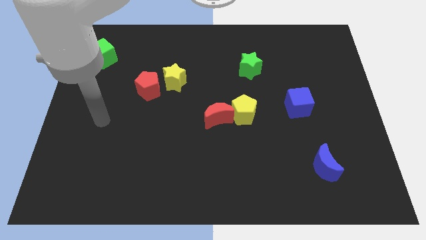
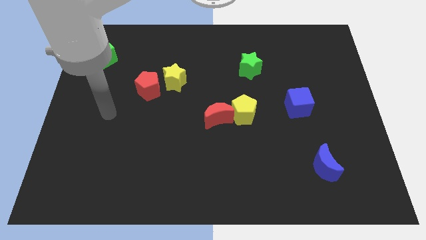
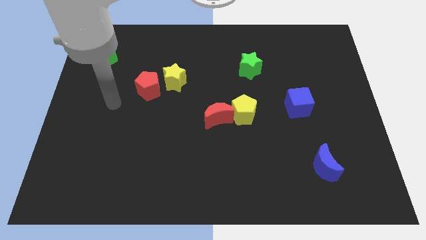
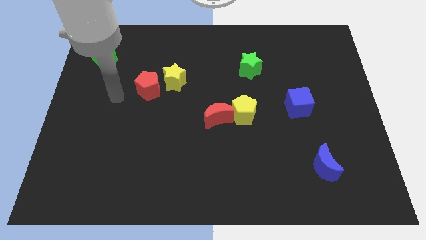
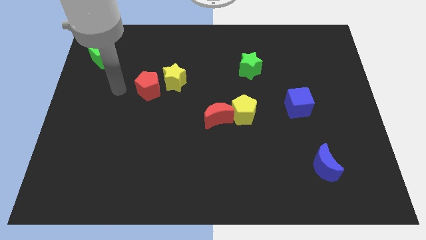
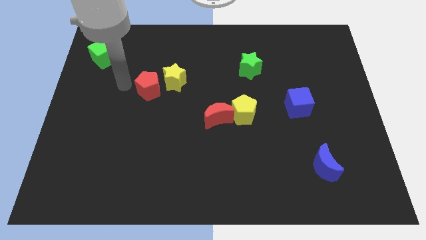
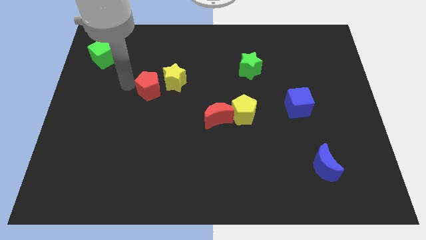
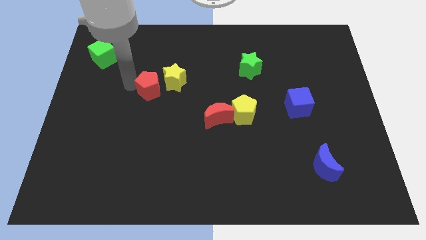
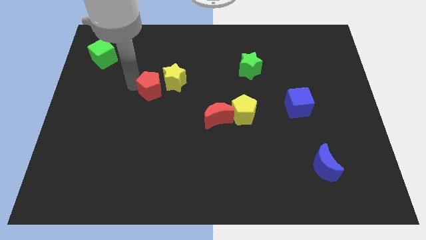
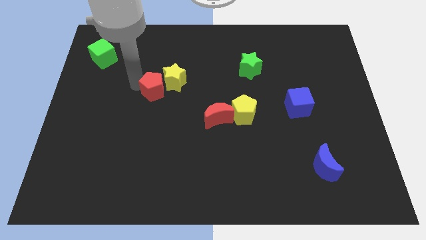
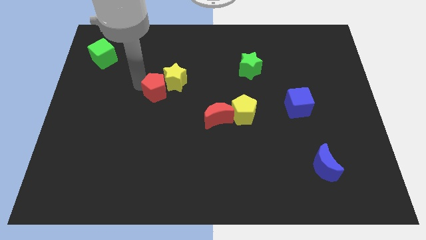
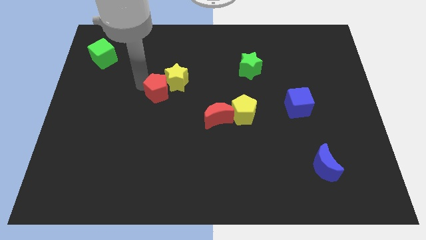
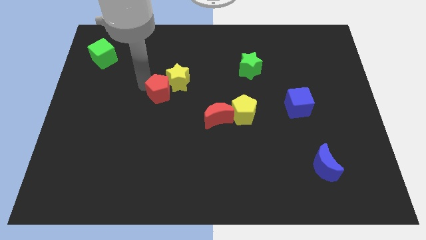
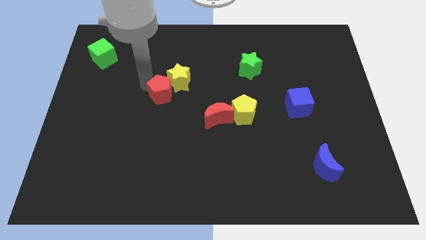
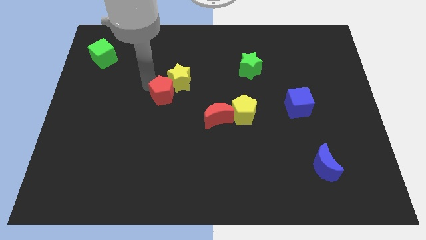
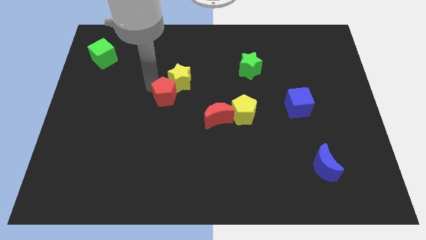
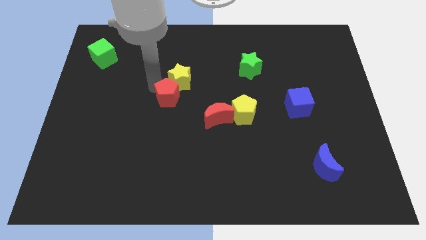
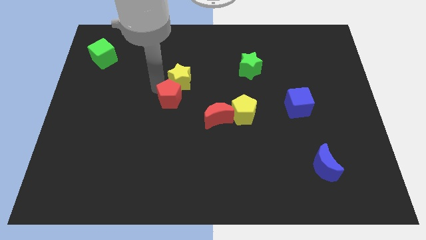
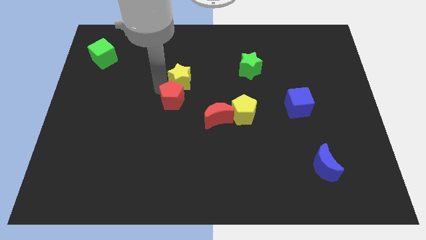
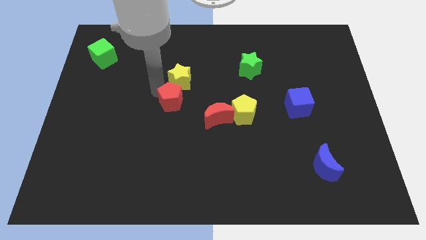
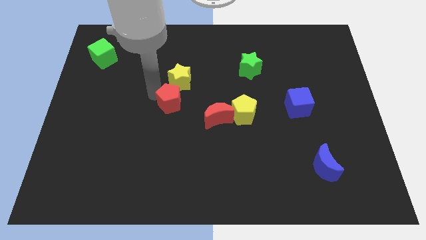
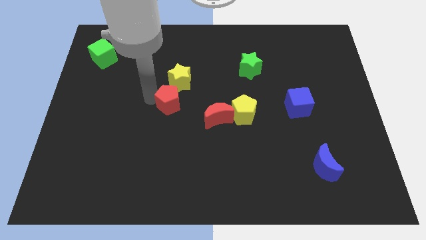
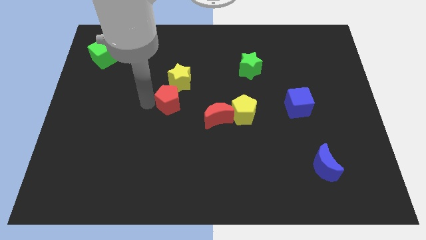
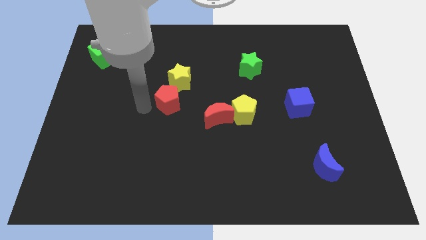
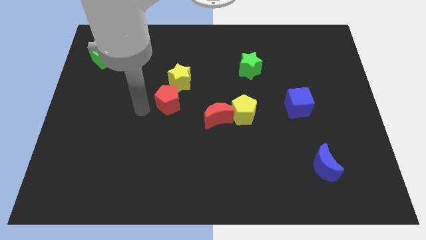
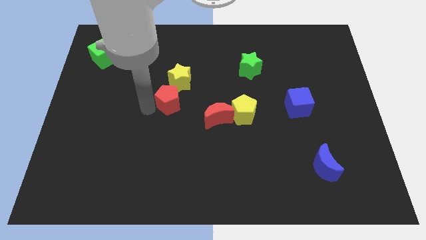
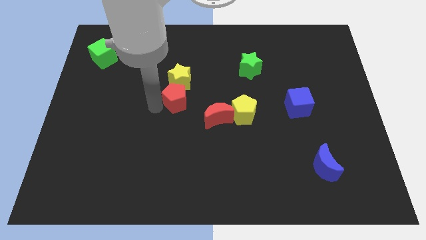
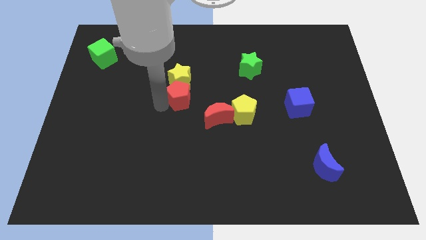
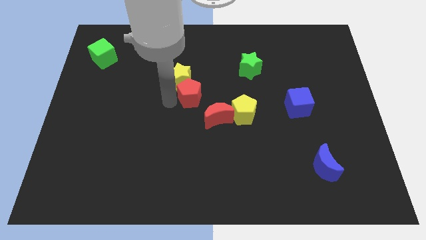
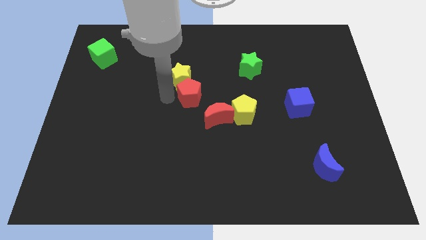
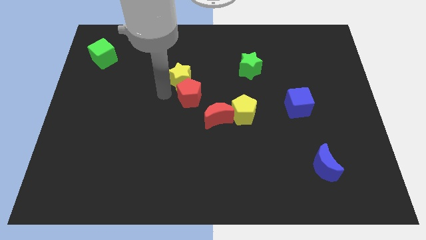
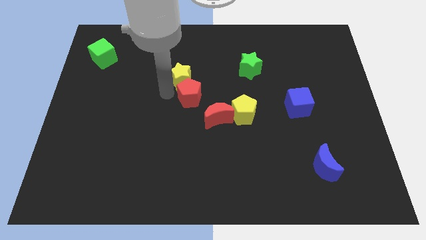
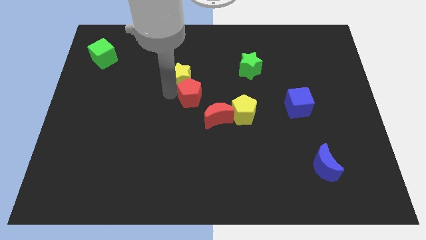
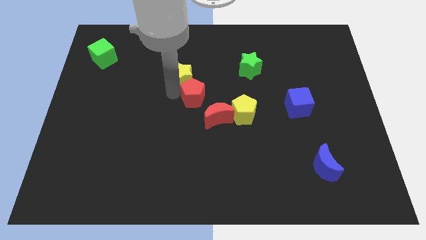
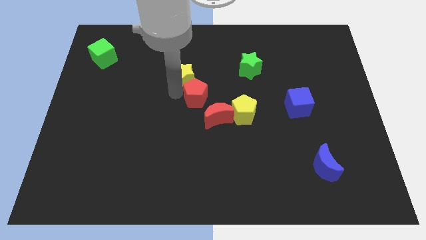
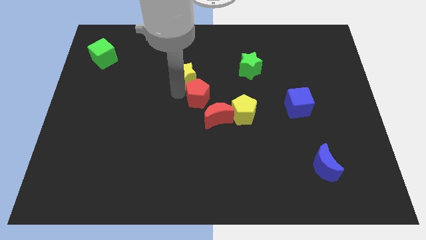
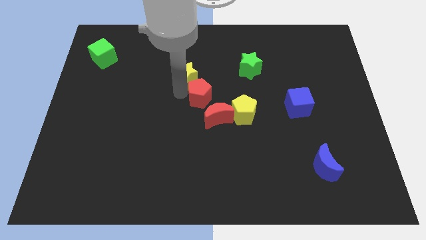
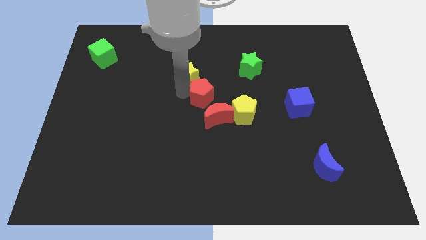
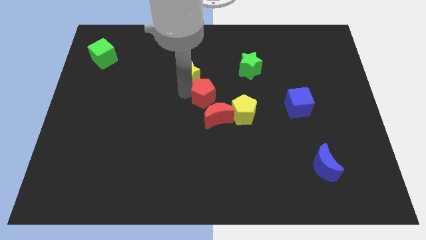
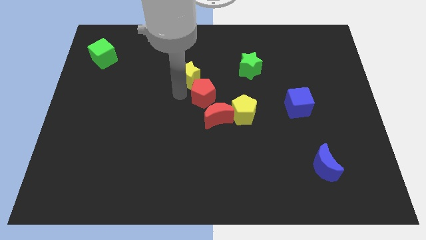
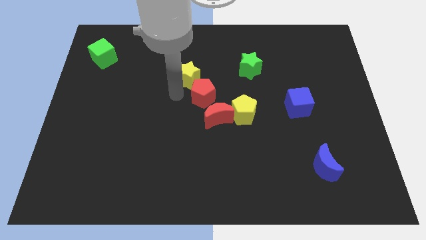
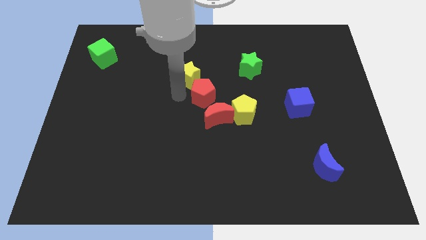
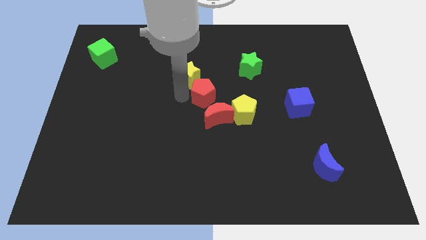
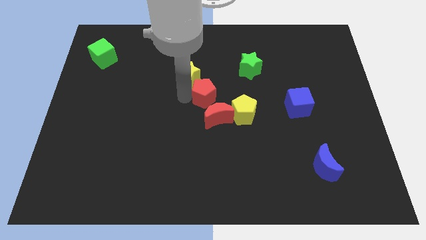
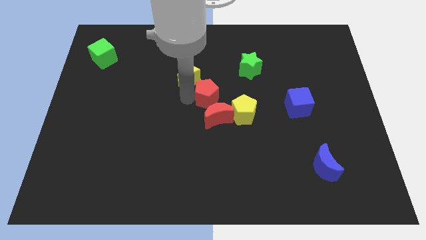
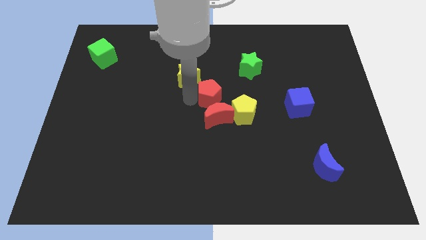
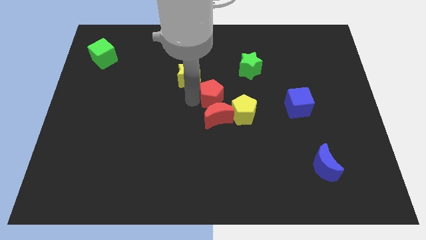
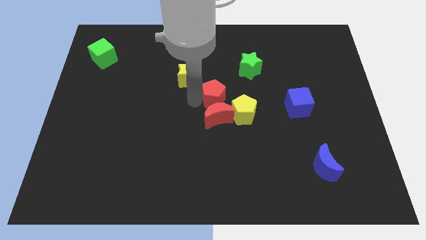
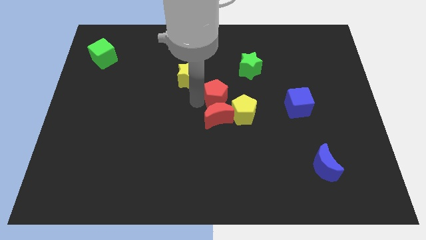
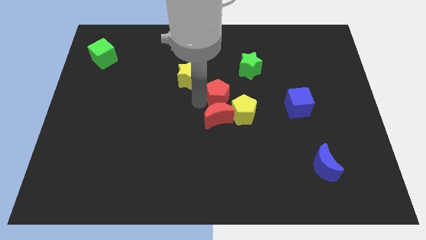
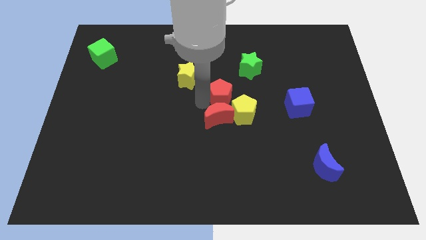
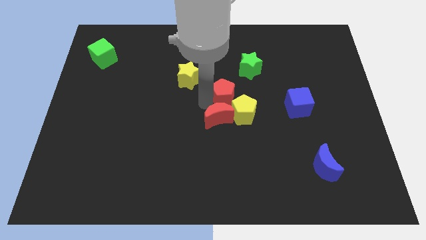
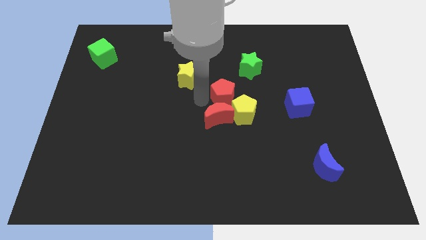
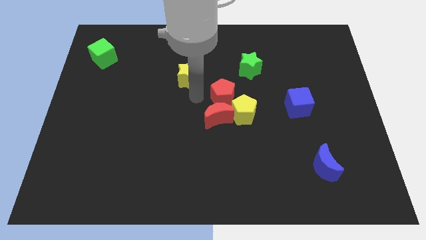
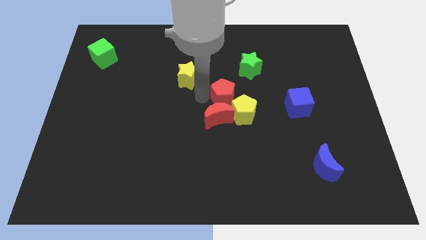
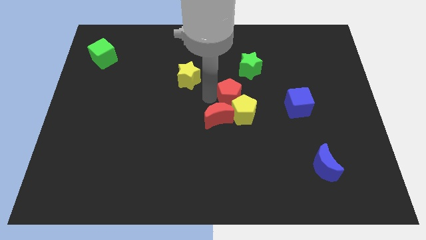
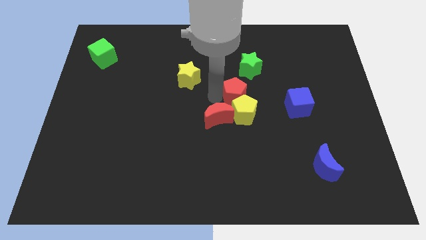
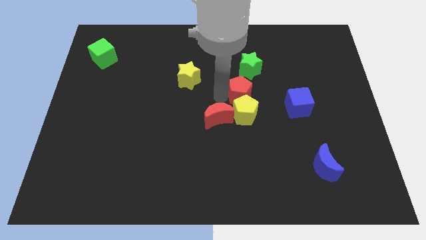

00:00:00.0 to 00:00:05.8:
move the red pentagon to the top right side of the yellow pentagon

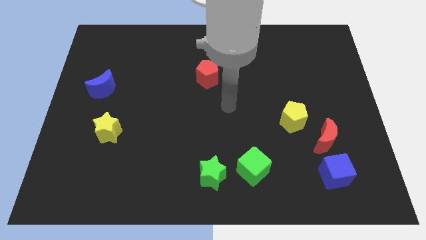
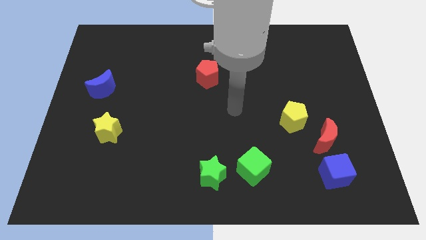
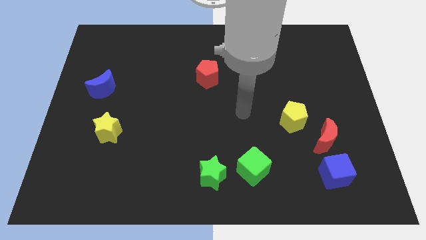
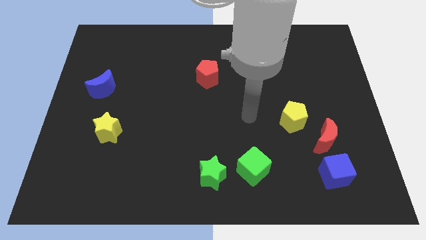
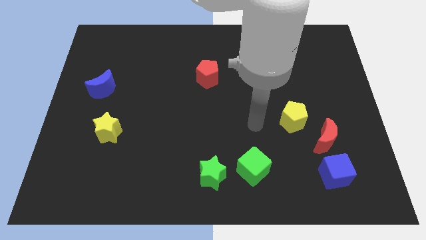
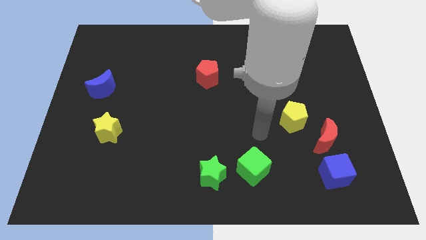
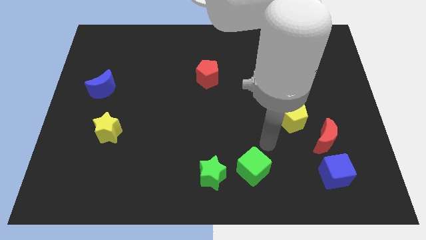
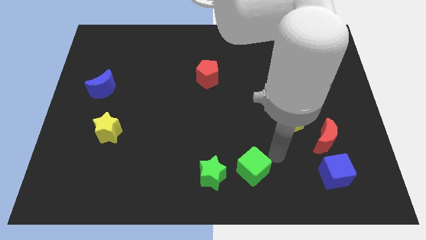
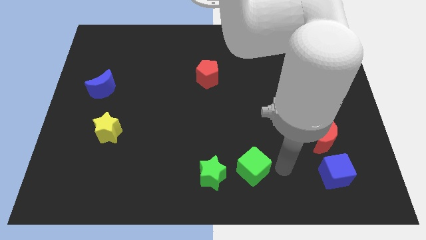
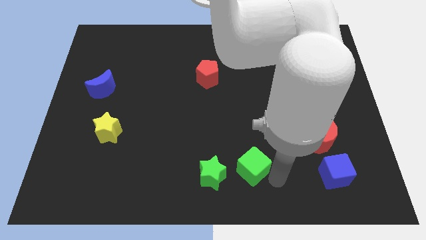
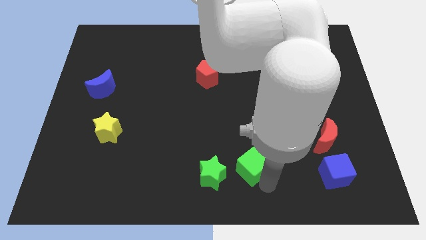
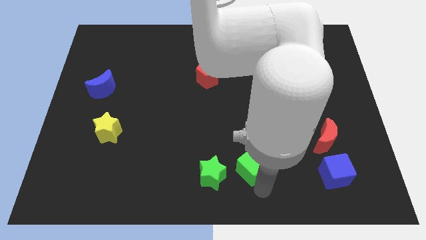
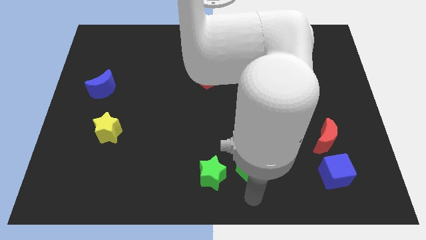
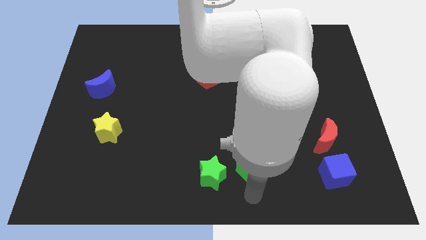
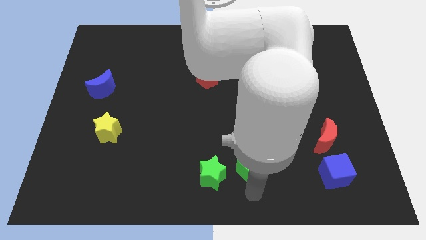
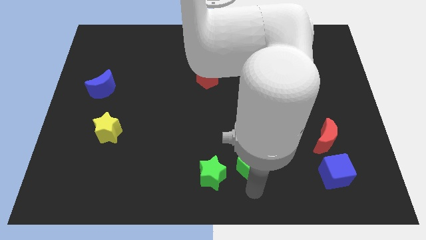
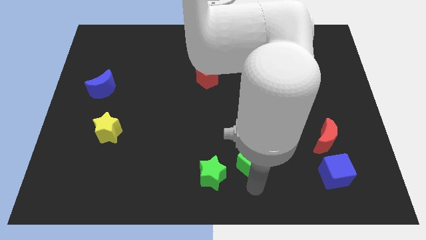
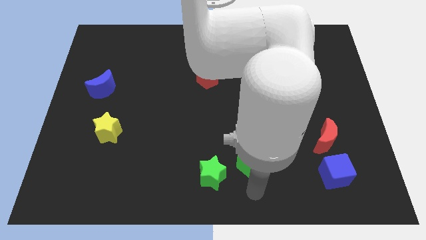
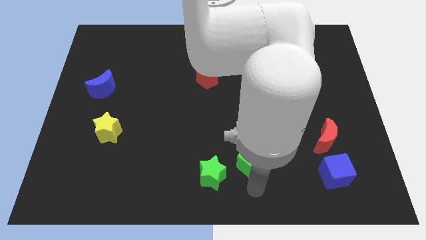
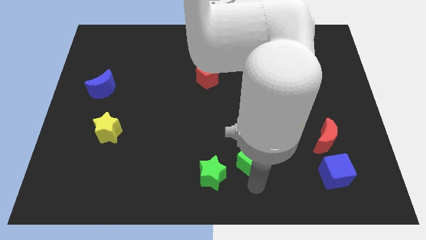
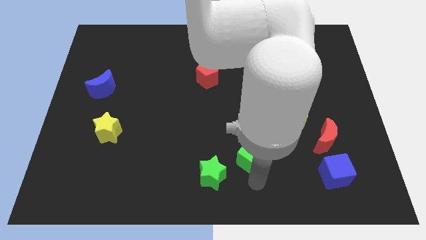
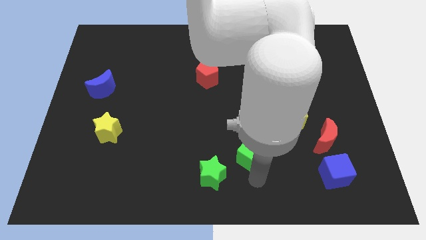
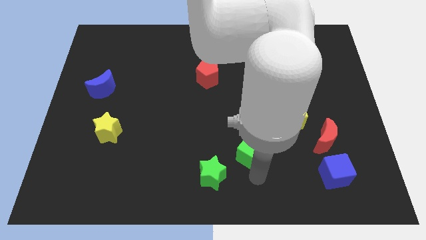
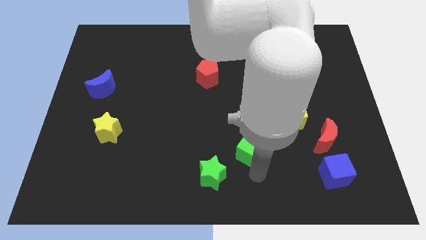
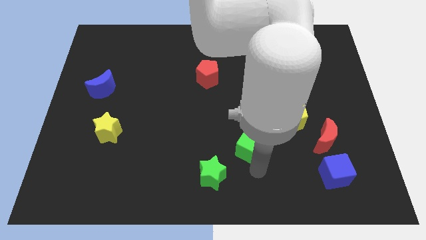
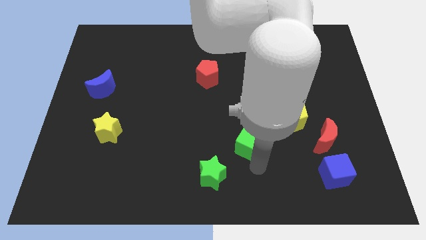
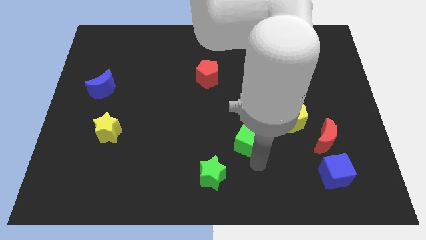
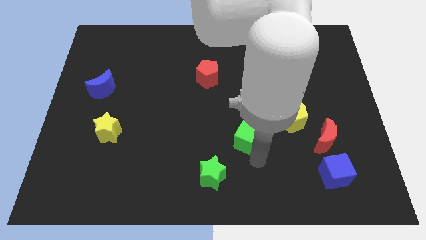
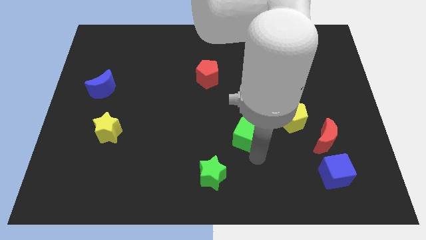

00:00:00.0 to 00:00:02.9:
put the green cube to the left side of the yellow pentagon
